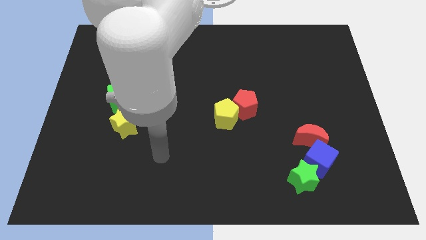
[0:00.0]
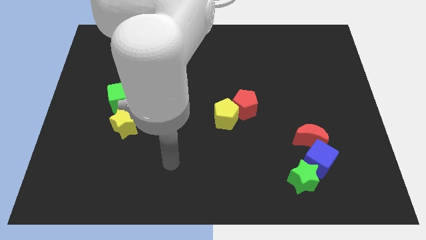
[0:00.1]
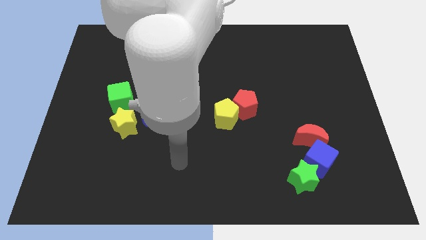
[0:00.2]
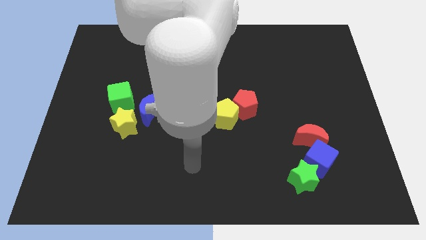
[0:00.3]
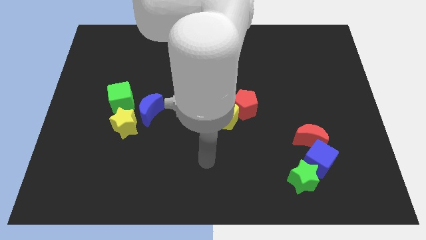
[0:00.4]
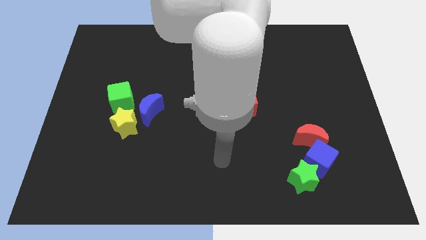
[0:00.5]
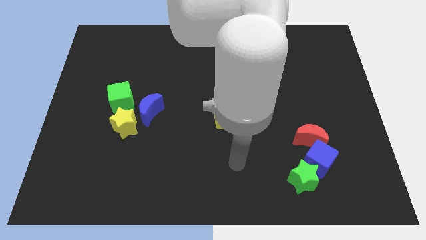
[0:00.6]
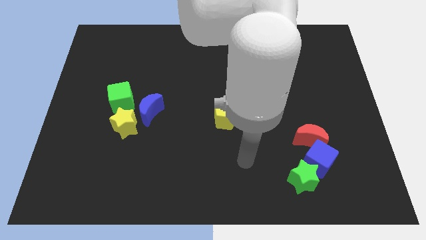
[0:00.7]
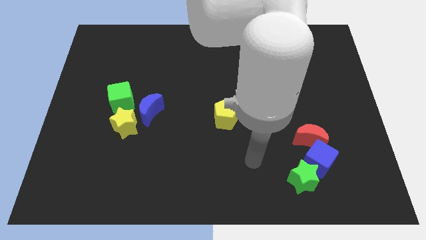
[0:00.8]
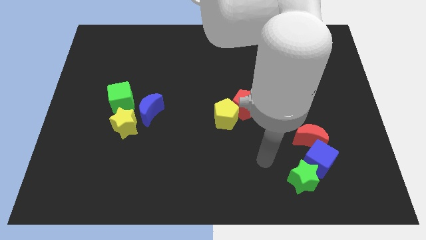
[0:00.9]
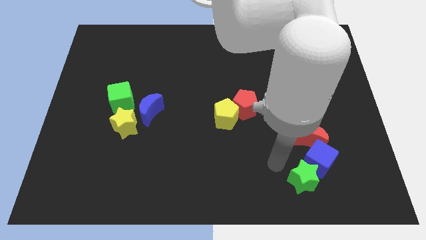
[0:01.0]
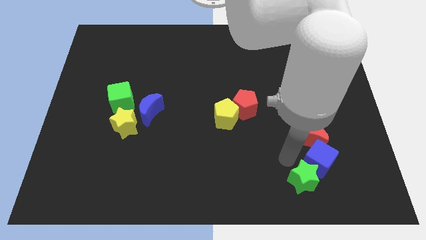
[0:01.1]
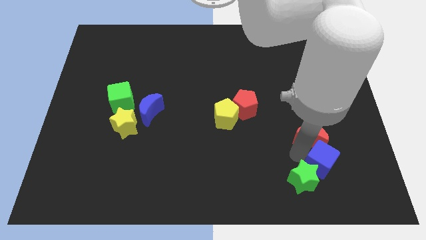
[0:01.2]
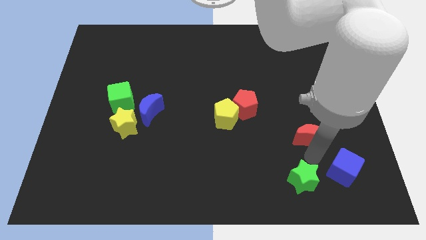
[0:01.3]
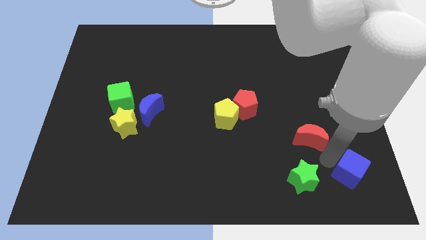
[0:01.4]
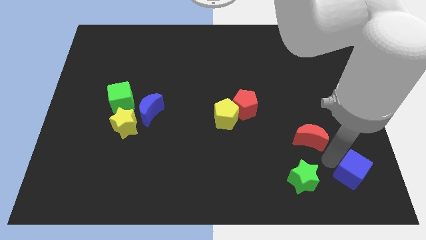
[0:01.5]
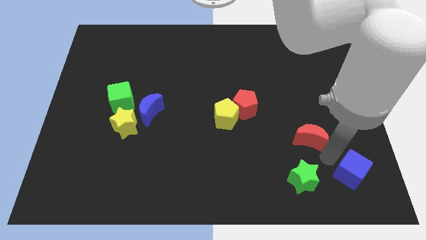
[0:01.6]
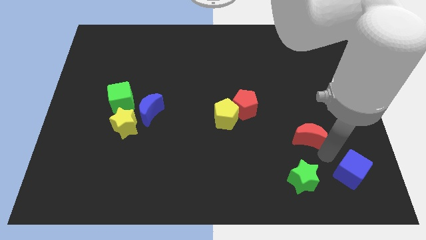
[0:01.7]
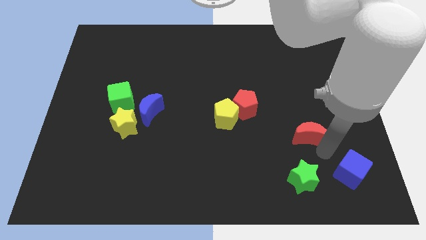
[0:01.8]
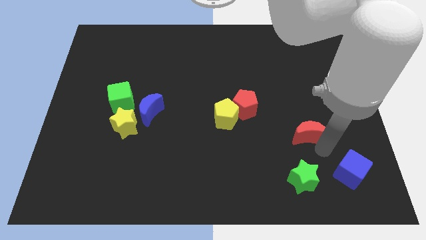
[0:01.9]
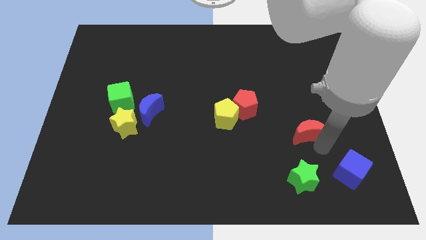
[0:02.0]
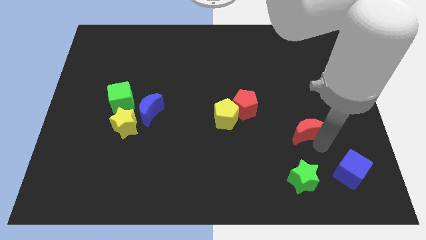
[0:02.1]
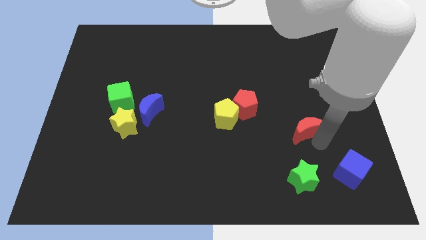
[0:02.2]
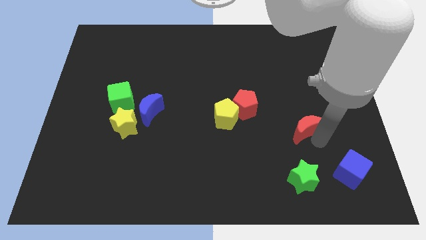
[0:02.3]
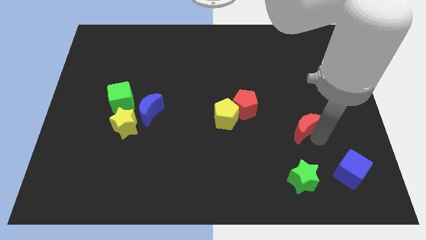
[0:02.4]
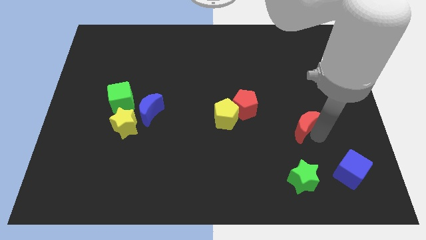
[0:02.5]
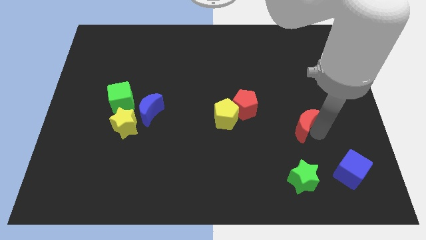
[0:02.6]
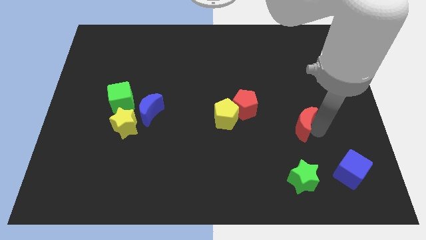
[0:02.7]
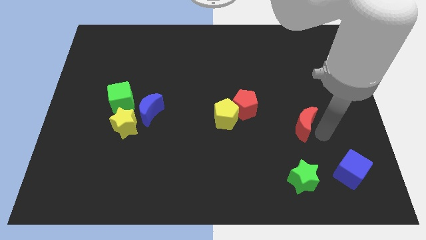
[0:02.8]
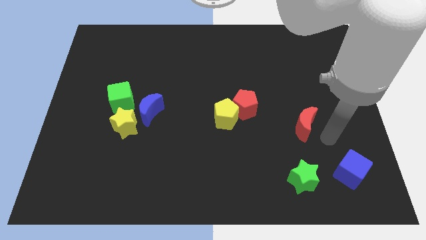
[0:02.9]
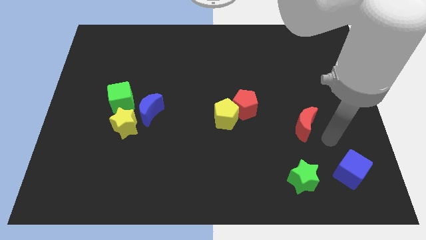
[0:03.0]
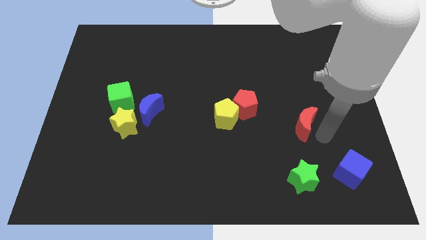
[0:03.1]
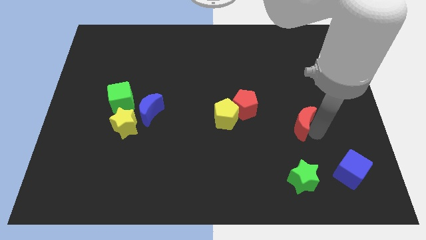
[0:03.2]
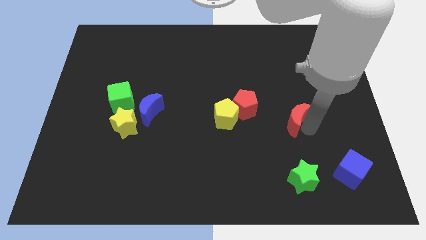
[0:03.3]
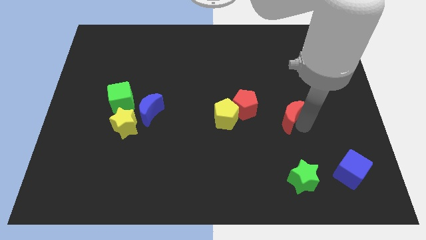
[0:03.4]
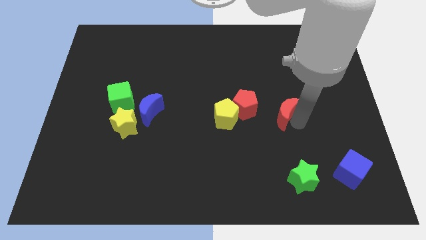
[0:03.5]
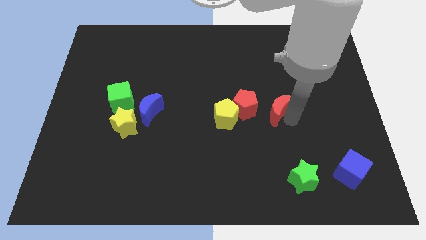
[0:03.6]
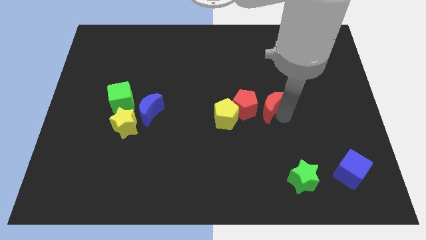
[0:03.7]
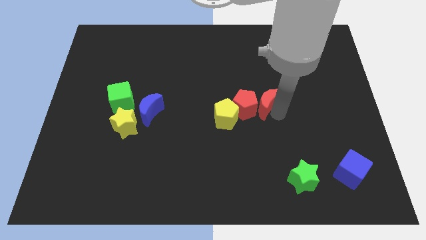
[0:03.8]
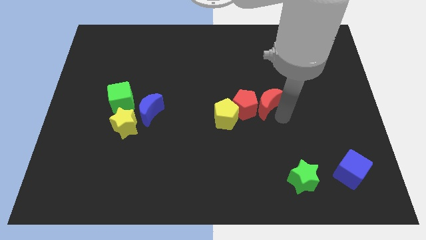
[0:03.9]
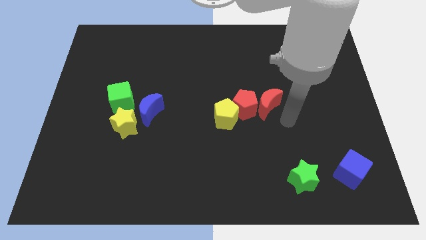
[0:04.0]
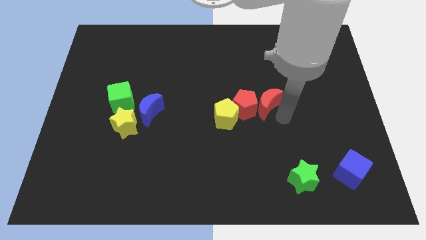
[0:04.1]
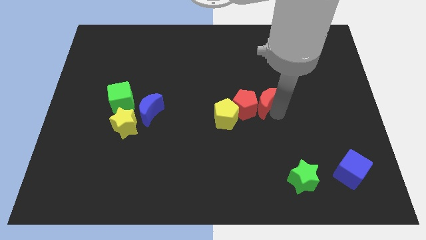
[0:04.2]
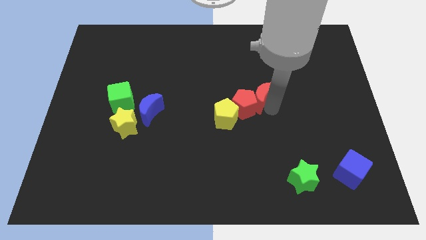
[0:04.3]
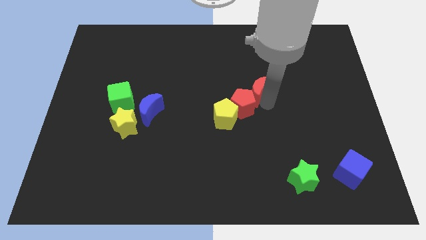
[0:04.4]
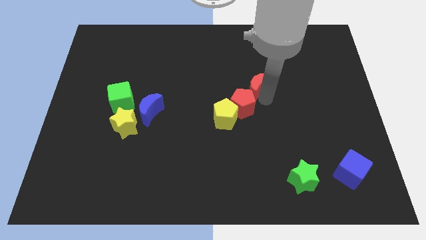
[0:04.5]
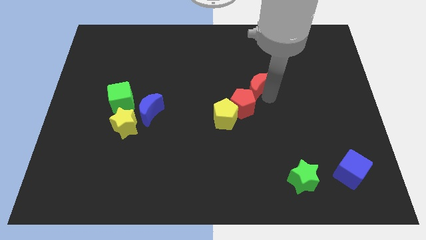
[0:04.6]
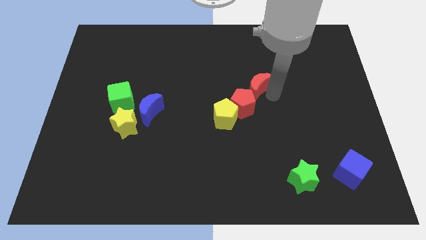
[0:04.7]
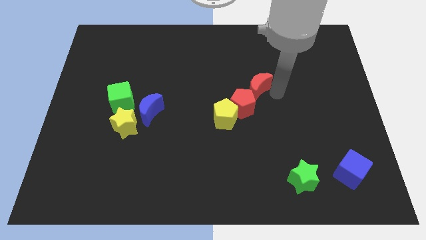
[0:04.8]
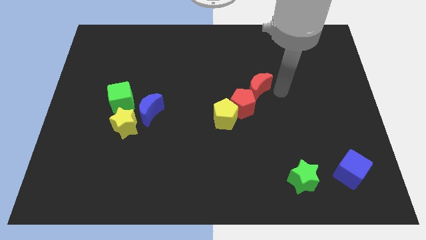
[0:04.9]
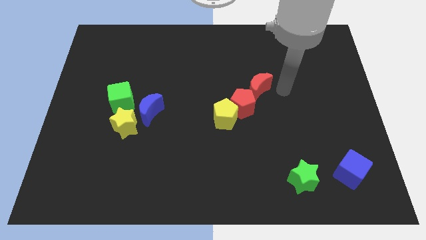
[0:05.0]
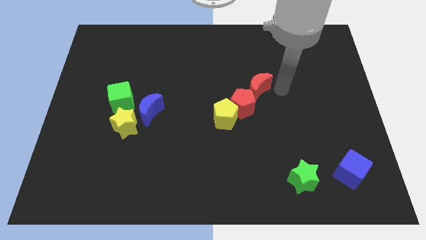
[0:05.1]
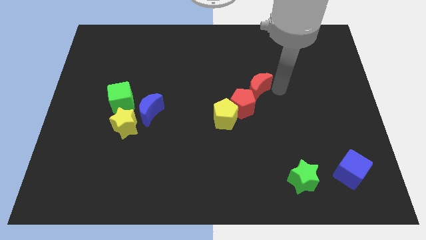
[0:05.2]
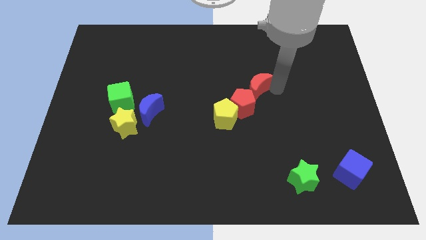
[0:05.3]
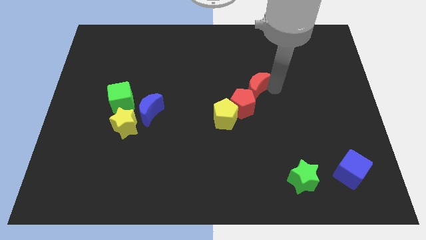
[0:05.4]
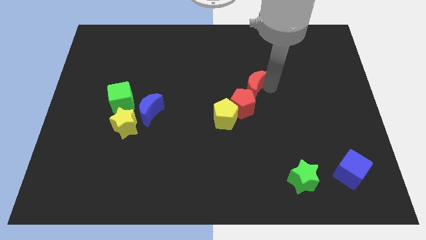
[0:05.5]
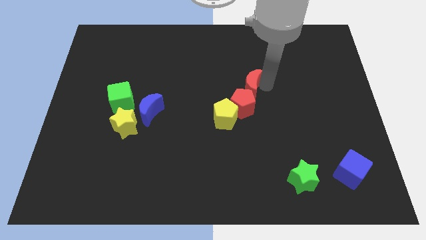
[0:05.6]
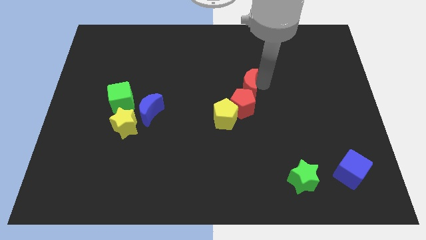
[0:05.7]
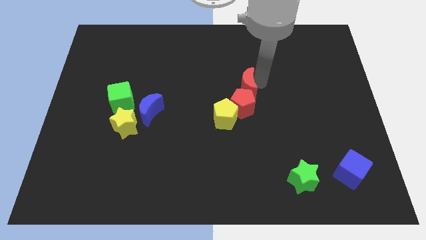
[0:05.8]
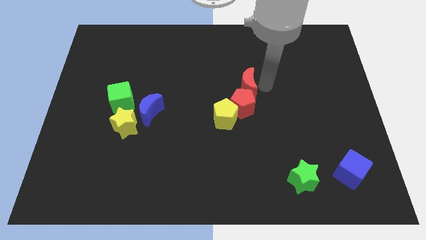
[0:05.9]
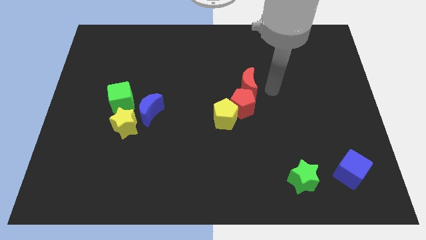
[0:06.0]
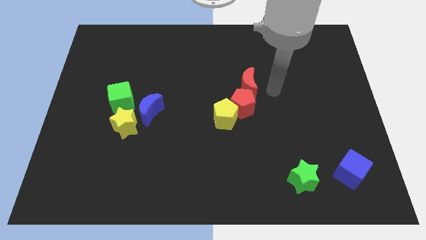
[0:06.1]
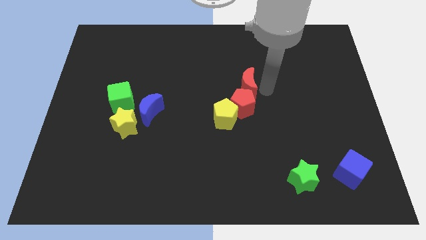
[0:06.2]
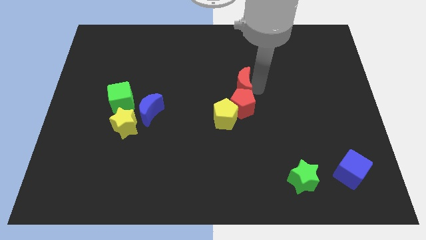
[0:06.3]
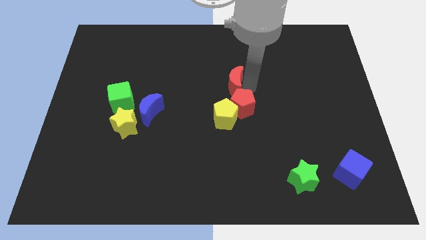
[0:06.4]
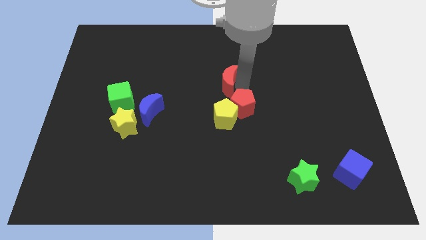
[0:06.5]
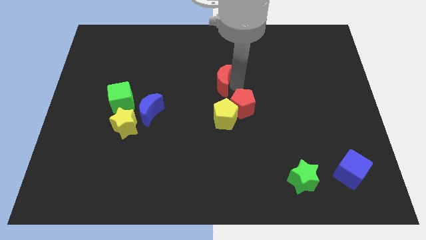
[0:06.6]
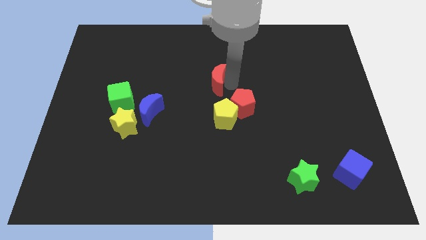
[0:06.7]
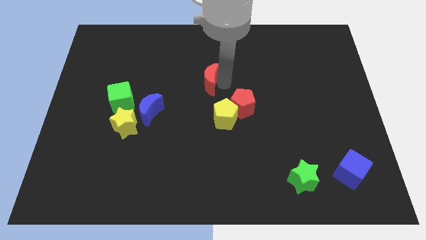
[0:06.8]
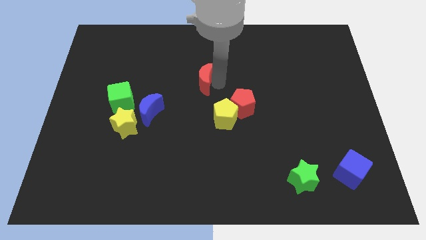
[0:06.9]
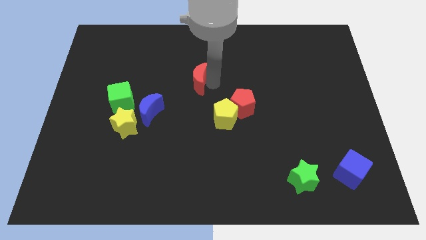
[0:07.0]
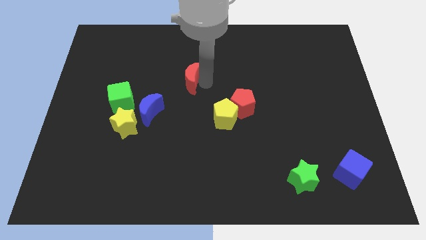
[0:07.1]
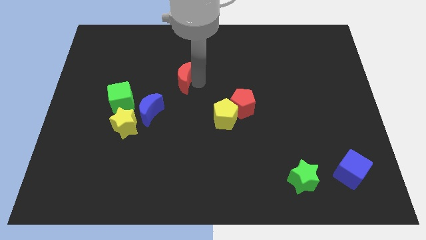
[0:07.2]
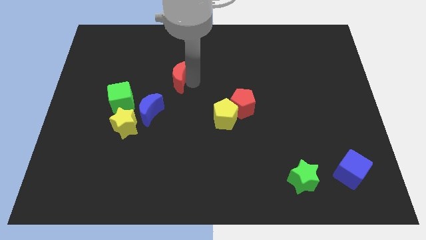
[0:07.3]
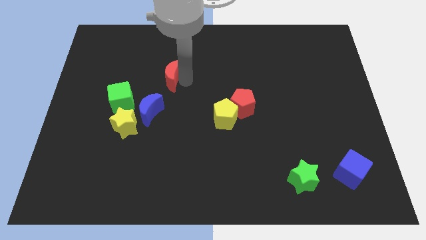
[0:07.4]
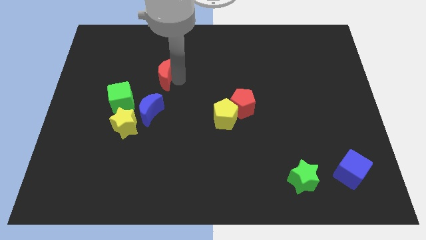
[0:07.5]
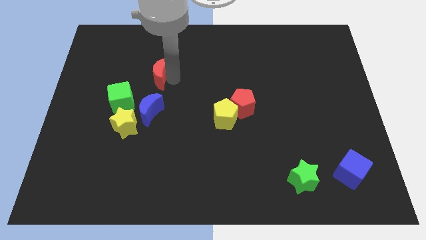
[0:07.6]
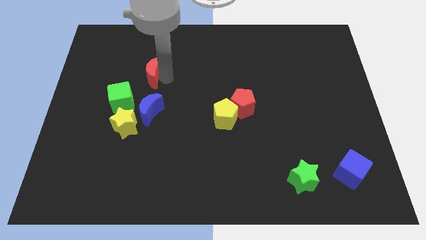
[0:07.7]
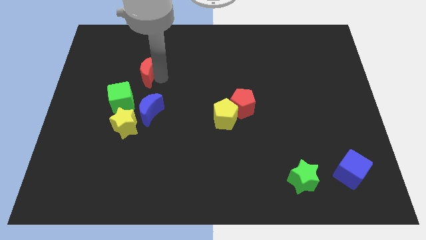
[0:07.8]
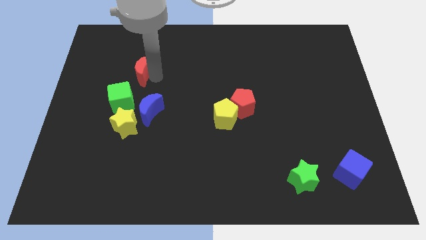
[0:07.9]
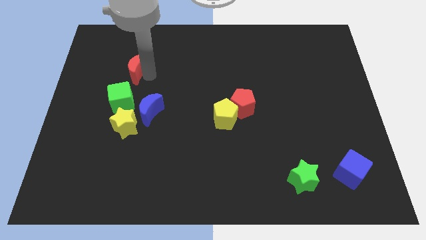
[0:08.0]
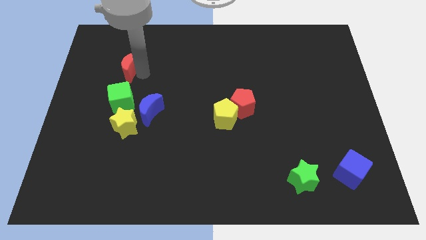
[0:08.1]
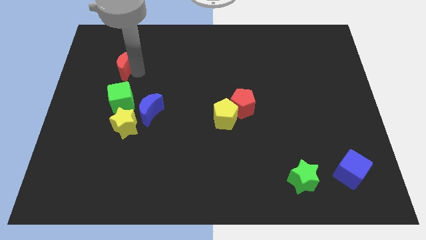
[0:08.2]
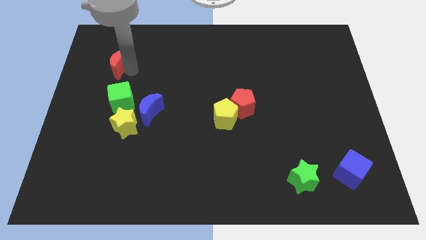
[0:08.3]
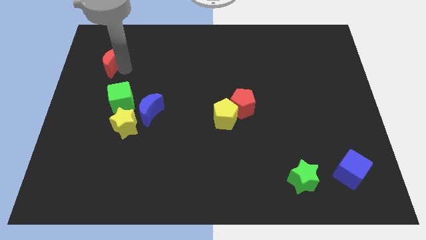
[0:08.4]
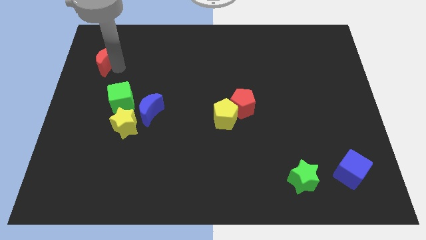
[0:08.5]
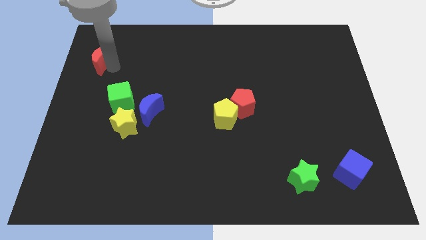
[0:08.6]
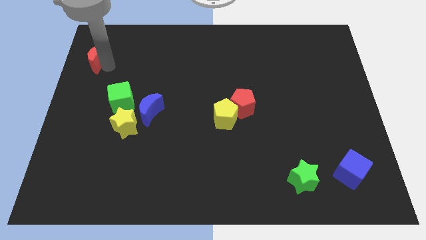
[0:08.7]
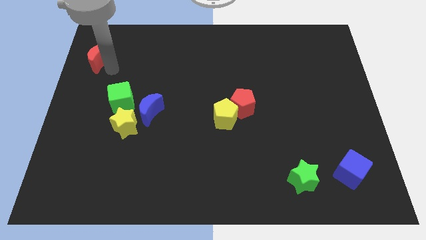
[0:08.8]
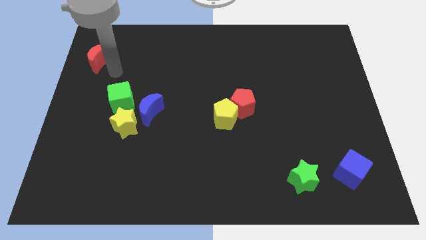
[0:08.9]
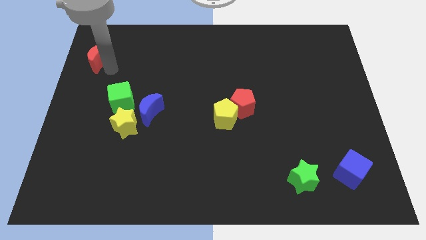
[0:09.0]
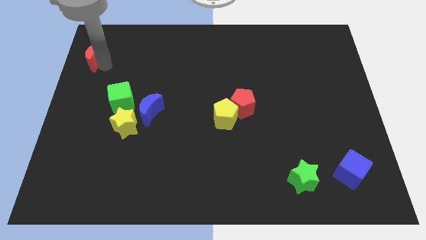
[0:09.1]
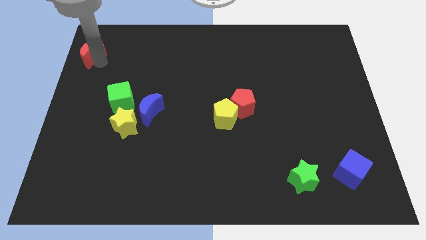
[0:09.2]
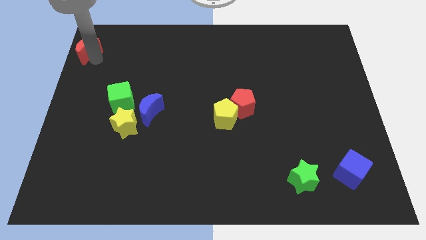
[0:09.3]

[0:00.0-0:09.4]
put the red moon to the top left of the board
